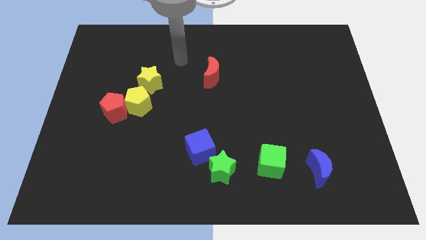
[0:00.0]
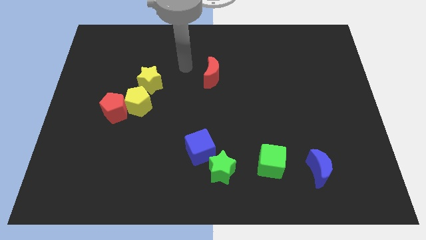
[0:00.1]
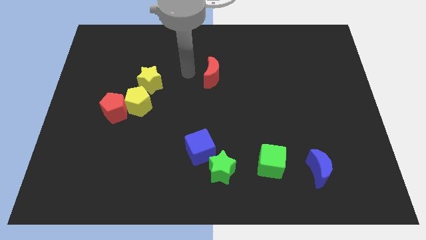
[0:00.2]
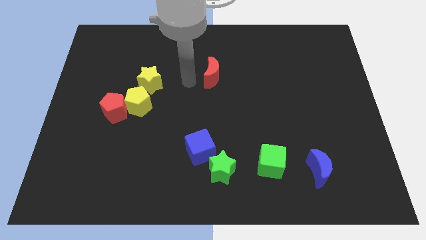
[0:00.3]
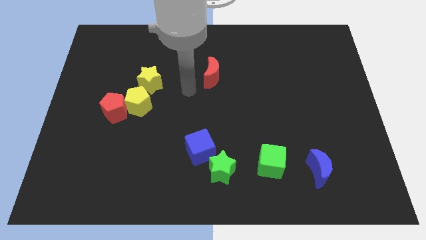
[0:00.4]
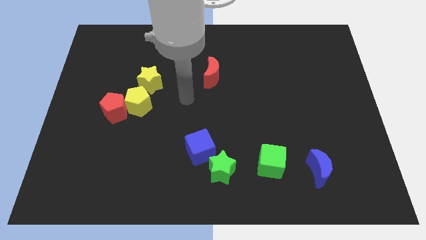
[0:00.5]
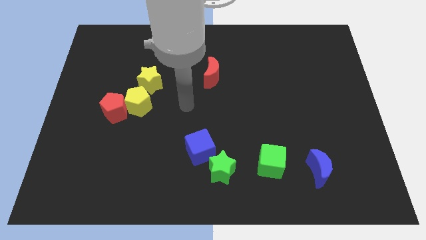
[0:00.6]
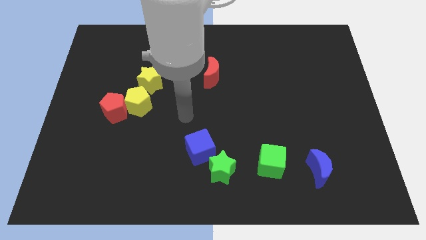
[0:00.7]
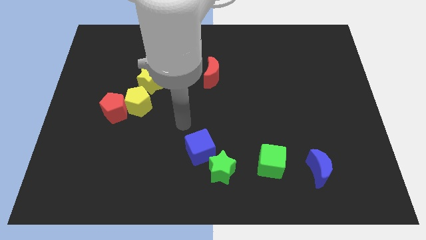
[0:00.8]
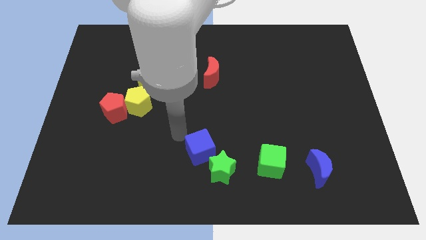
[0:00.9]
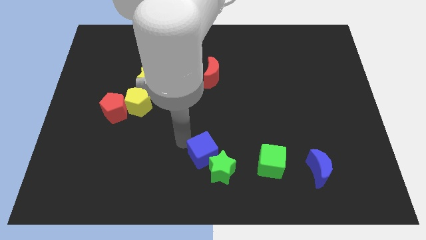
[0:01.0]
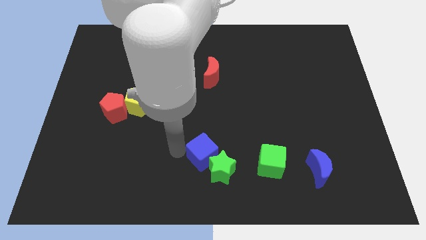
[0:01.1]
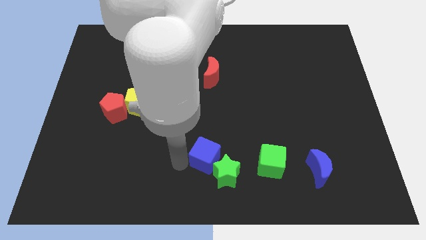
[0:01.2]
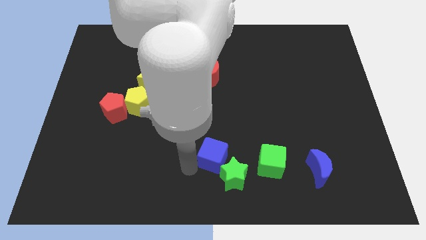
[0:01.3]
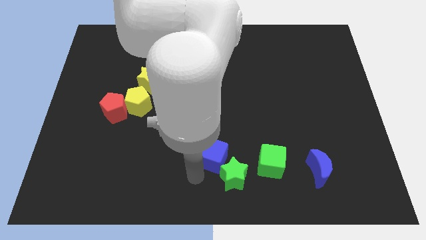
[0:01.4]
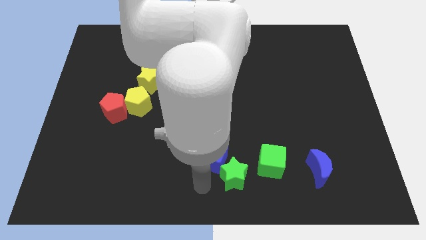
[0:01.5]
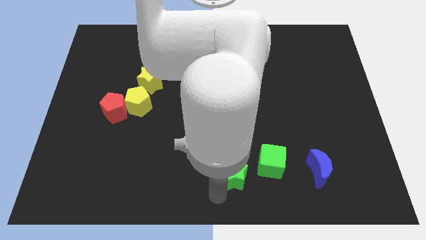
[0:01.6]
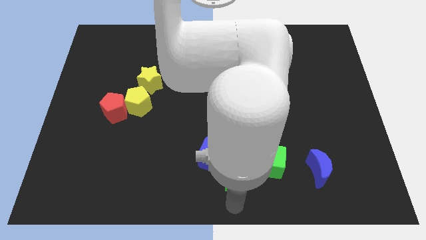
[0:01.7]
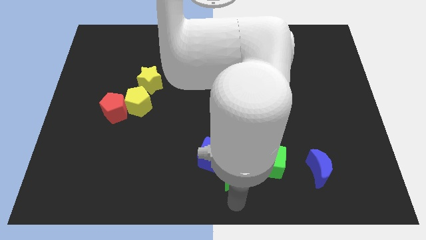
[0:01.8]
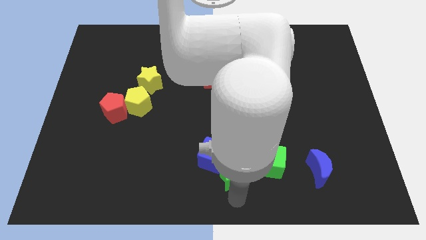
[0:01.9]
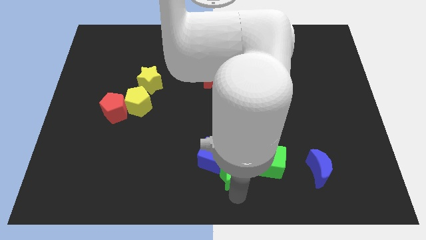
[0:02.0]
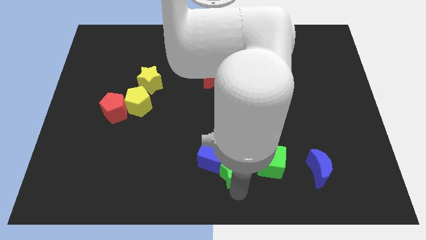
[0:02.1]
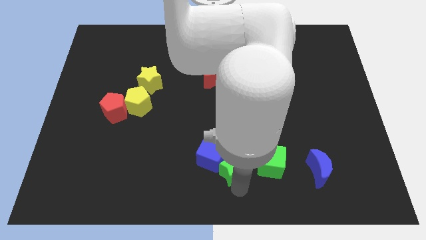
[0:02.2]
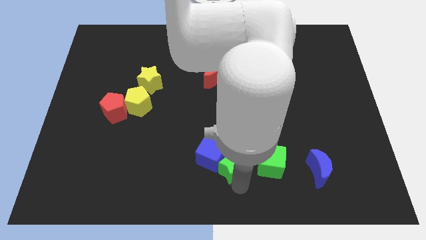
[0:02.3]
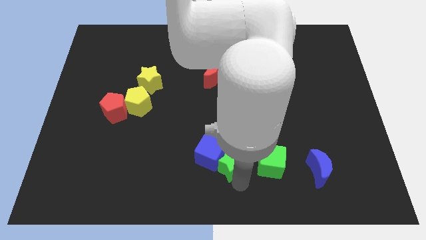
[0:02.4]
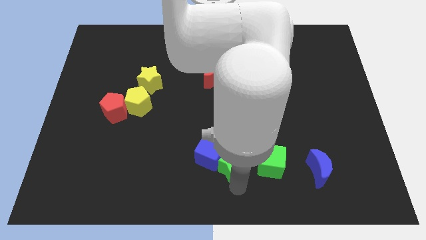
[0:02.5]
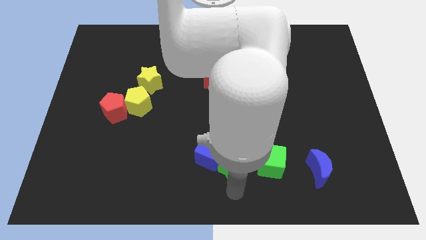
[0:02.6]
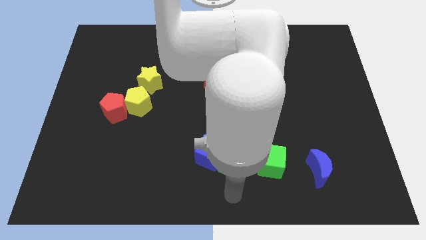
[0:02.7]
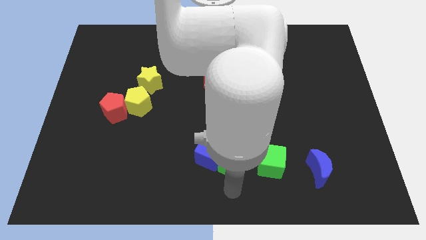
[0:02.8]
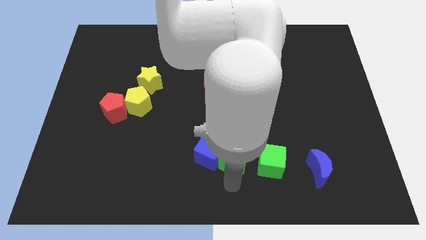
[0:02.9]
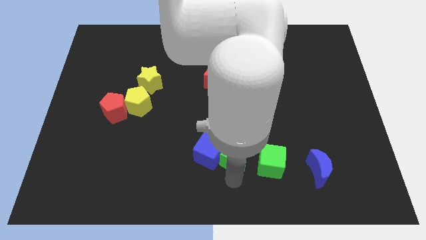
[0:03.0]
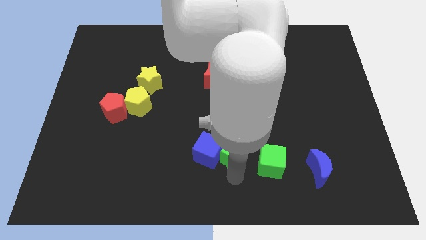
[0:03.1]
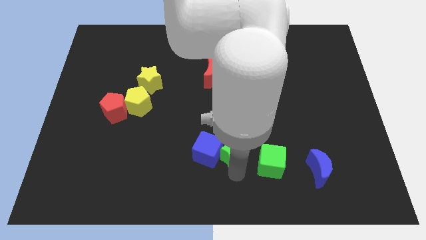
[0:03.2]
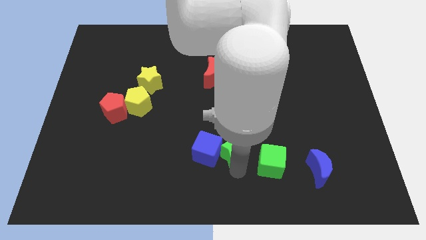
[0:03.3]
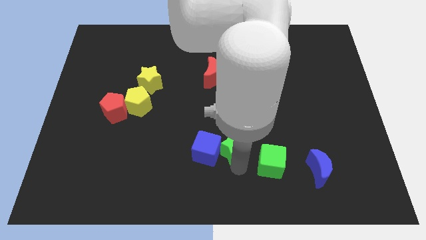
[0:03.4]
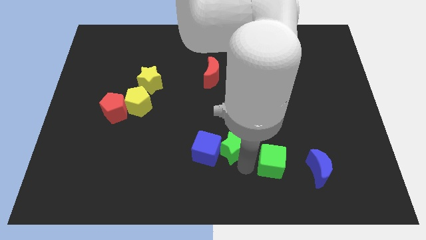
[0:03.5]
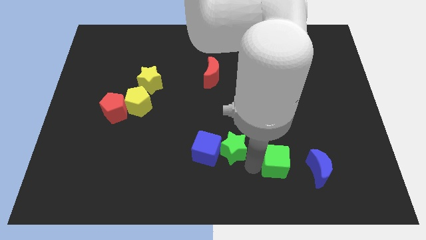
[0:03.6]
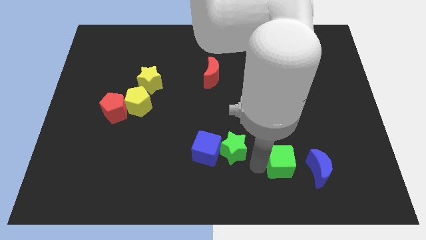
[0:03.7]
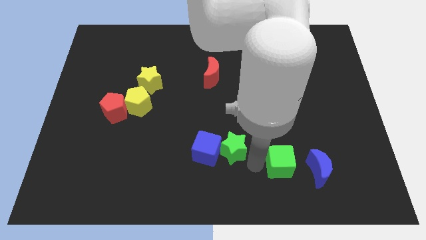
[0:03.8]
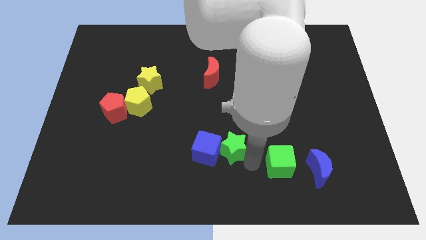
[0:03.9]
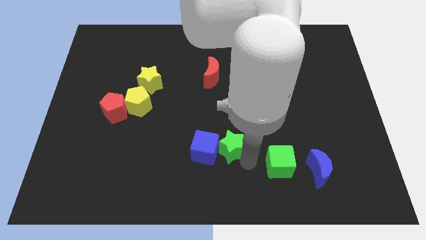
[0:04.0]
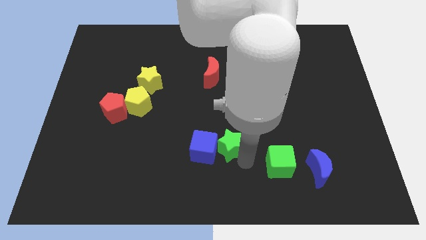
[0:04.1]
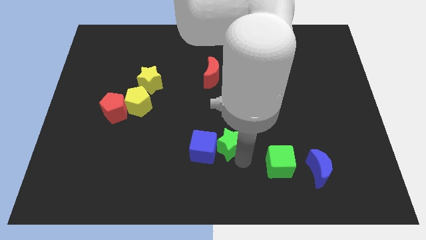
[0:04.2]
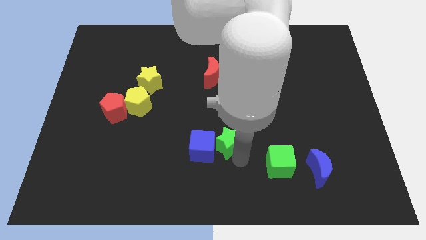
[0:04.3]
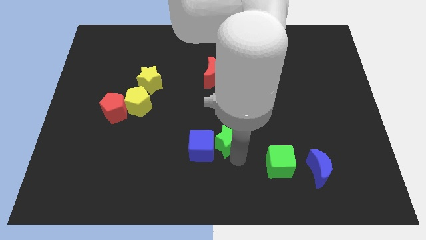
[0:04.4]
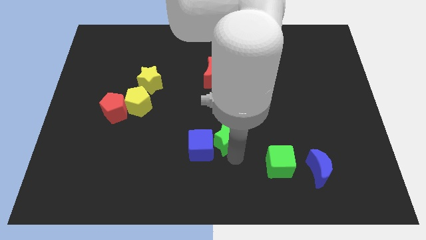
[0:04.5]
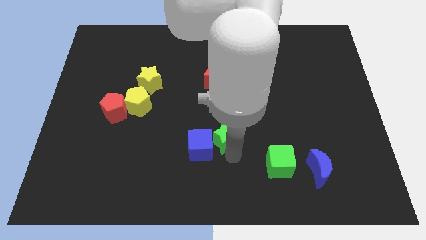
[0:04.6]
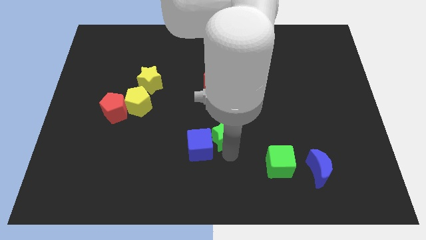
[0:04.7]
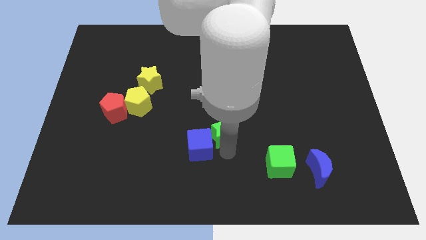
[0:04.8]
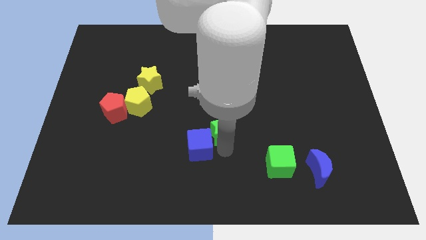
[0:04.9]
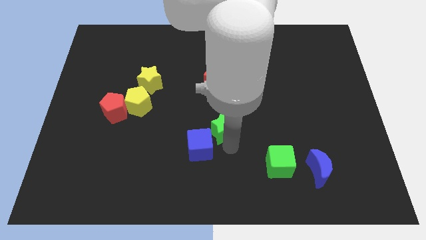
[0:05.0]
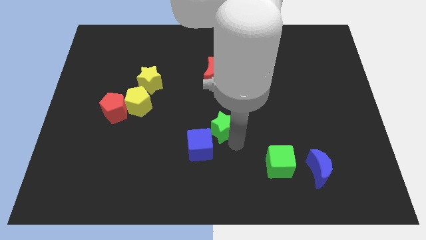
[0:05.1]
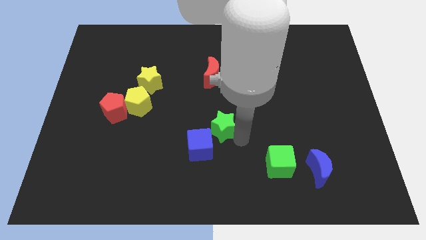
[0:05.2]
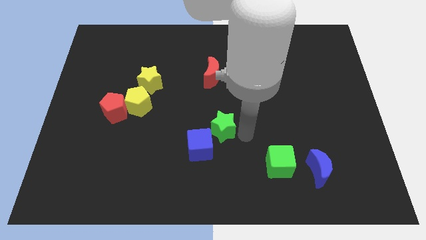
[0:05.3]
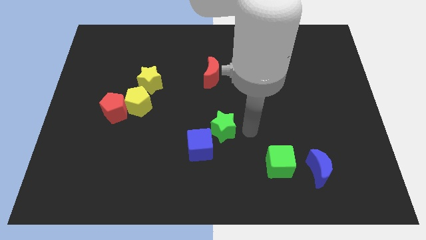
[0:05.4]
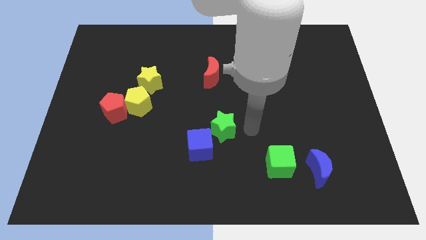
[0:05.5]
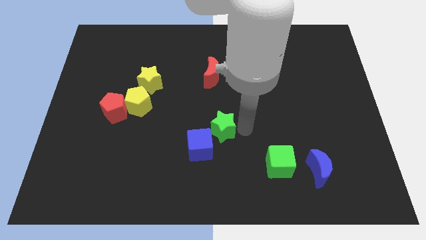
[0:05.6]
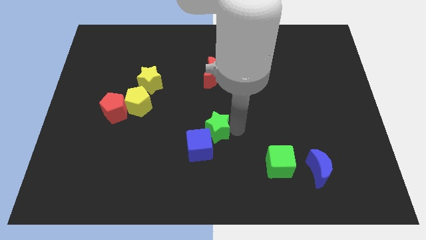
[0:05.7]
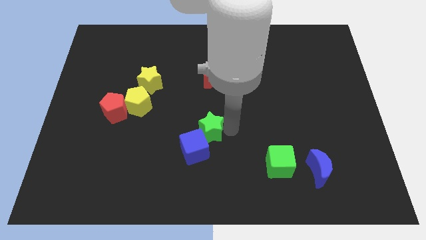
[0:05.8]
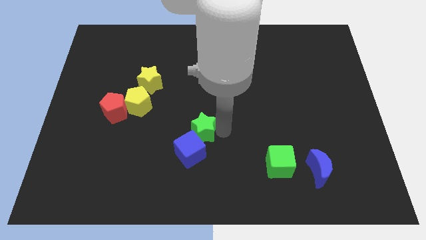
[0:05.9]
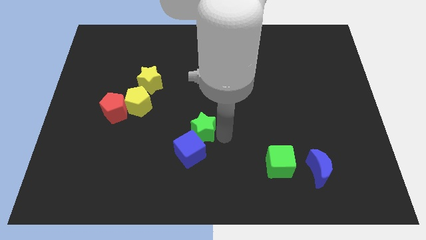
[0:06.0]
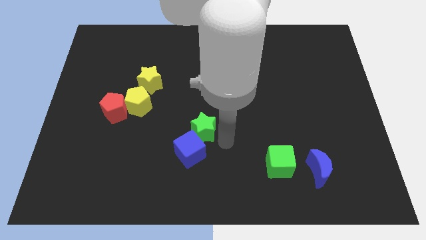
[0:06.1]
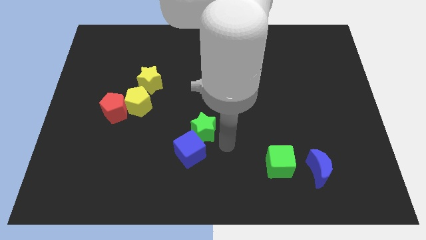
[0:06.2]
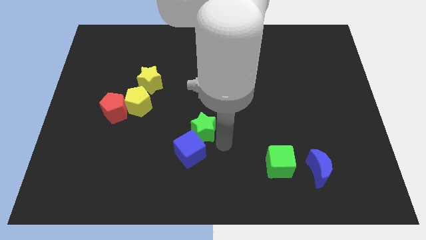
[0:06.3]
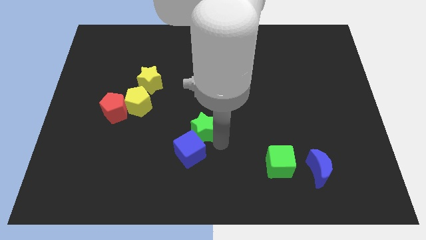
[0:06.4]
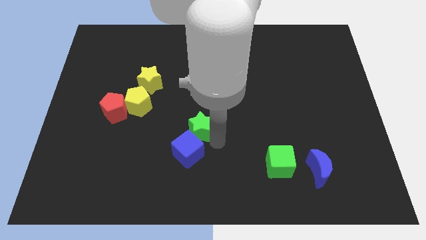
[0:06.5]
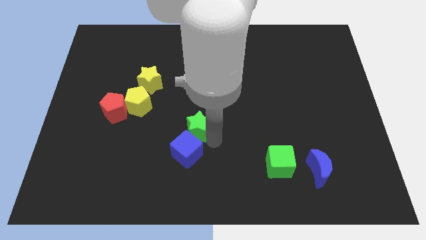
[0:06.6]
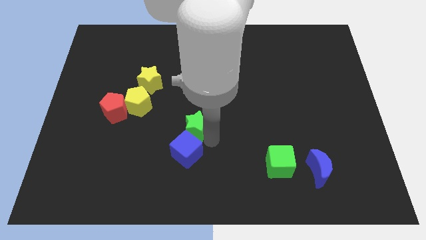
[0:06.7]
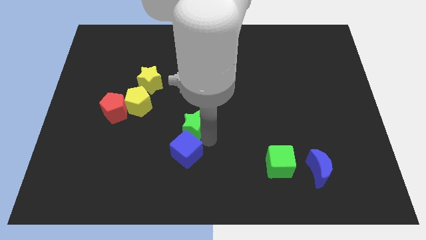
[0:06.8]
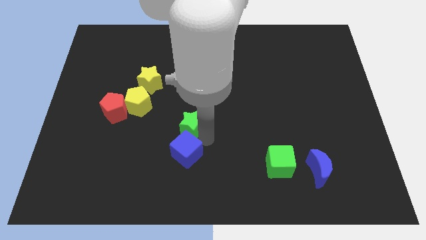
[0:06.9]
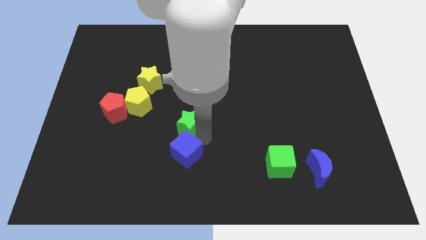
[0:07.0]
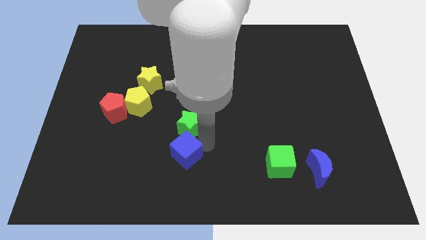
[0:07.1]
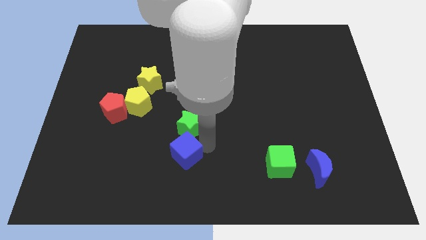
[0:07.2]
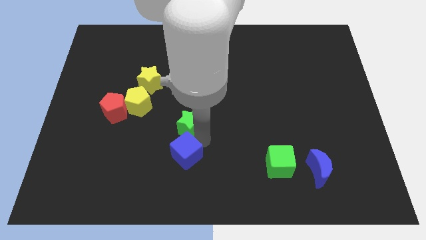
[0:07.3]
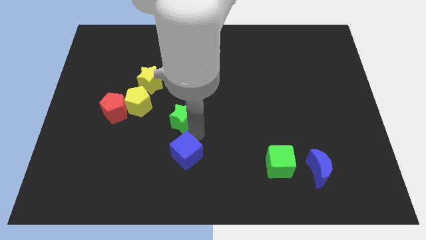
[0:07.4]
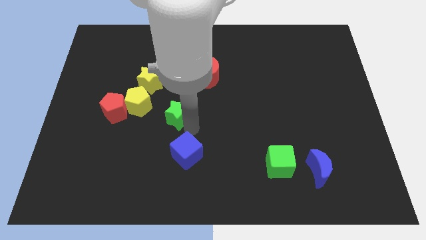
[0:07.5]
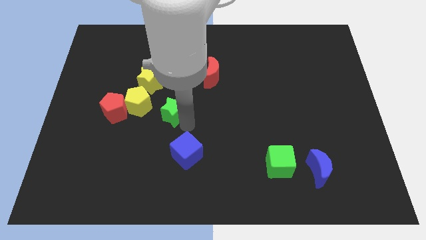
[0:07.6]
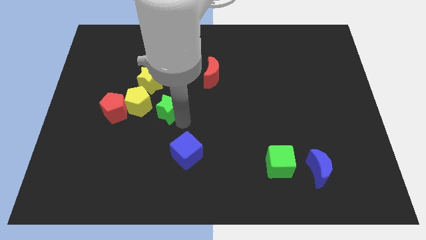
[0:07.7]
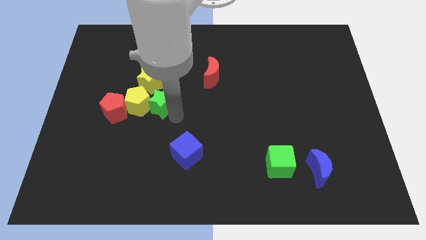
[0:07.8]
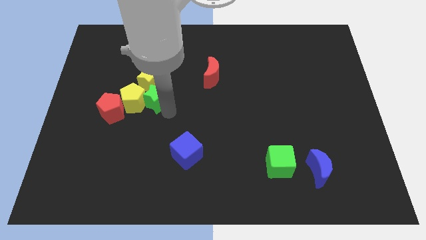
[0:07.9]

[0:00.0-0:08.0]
move the green star next to the yellow star
